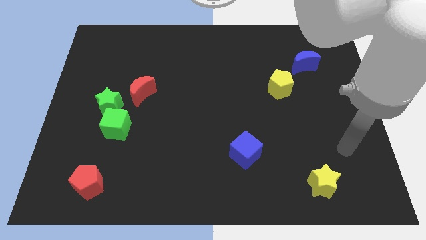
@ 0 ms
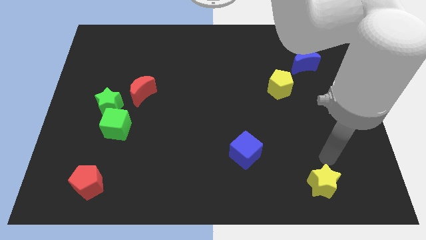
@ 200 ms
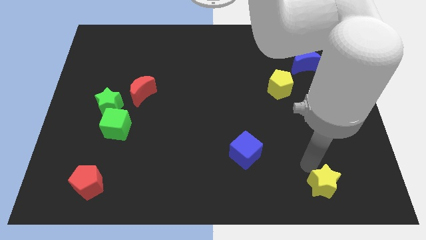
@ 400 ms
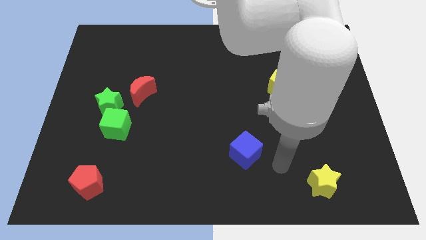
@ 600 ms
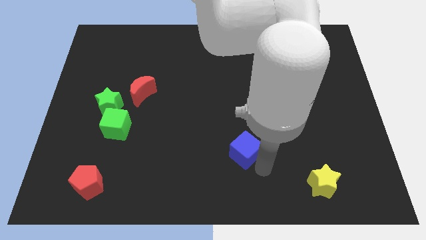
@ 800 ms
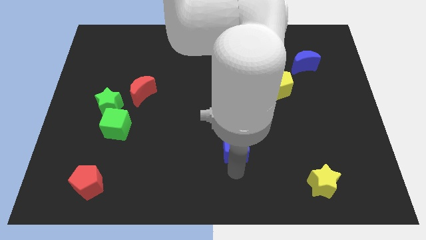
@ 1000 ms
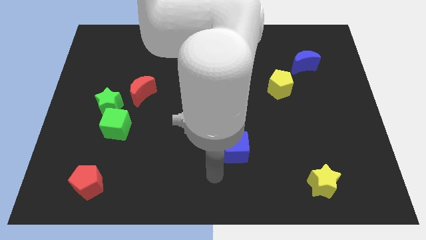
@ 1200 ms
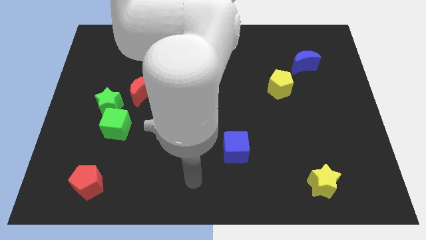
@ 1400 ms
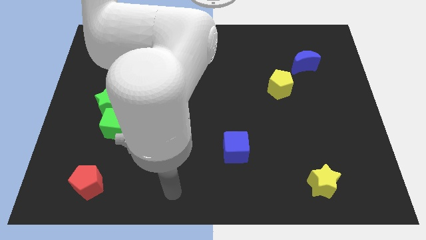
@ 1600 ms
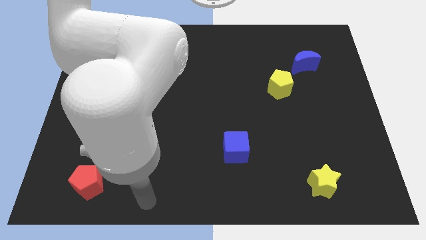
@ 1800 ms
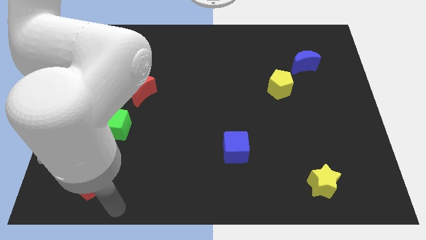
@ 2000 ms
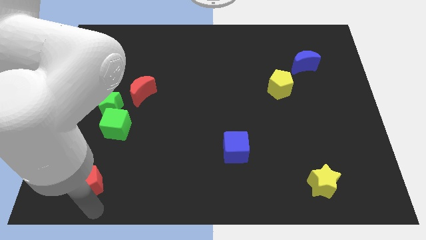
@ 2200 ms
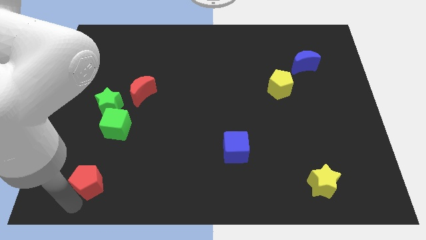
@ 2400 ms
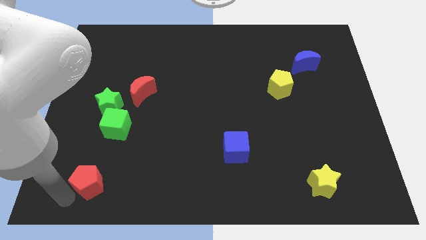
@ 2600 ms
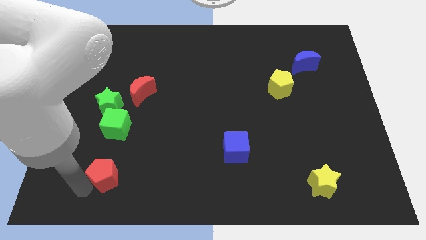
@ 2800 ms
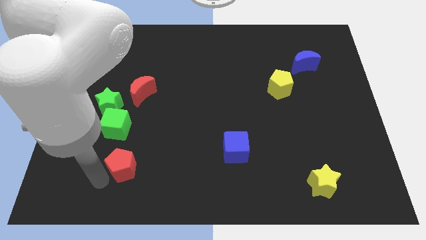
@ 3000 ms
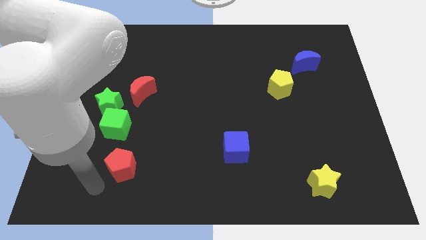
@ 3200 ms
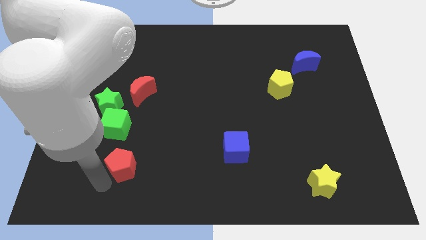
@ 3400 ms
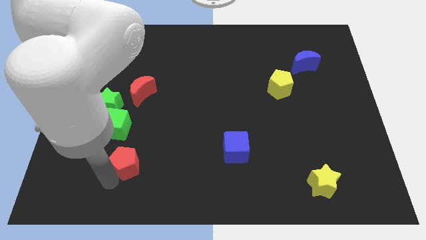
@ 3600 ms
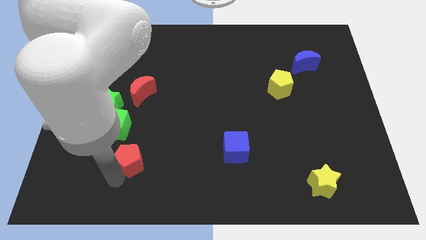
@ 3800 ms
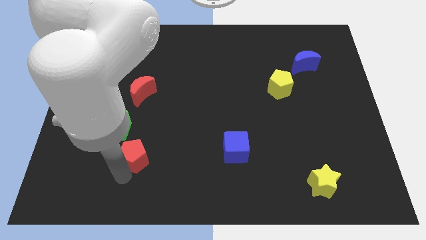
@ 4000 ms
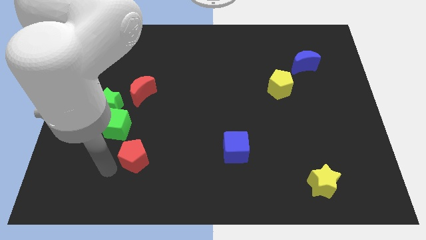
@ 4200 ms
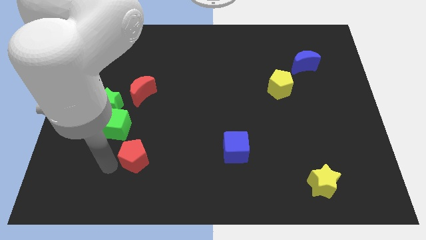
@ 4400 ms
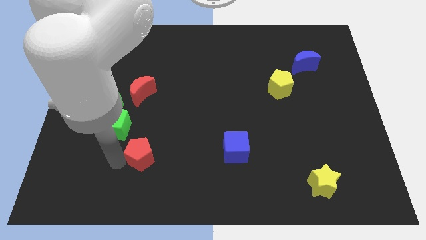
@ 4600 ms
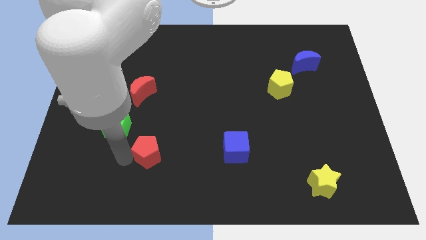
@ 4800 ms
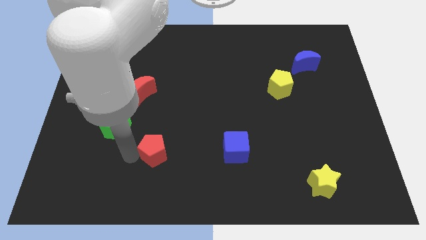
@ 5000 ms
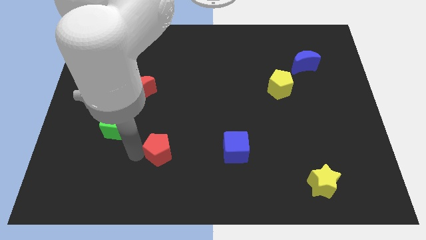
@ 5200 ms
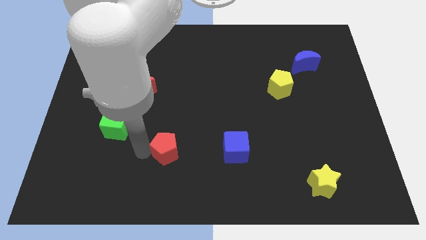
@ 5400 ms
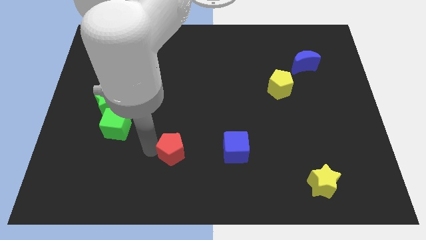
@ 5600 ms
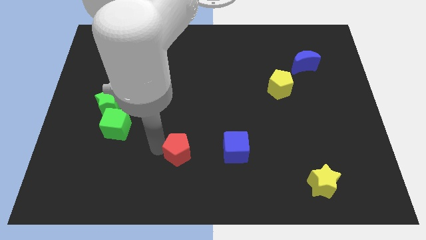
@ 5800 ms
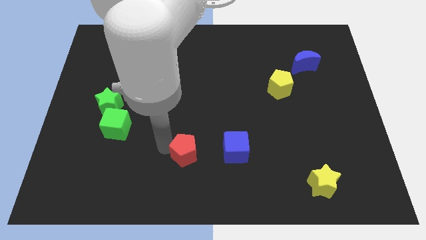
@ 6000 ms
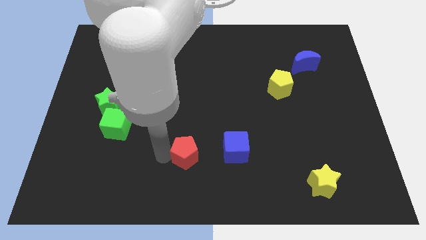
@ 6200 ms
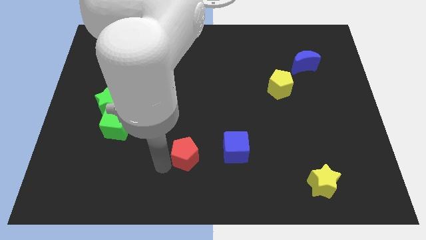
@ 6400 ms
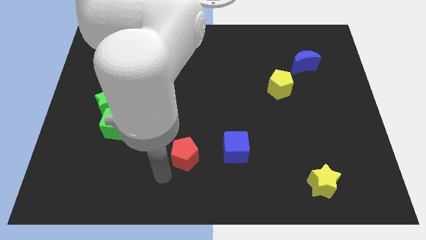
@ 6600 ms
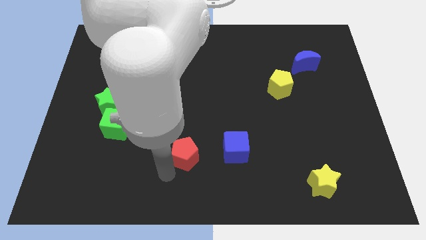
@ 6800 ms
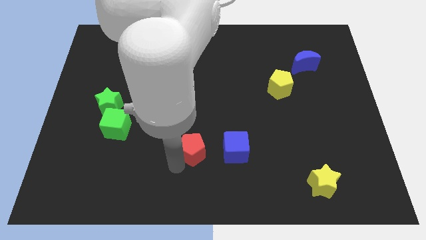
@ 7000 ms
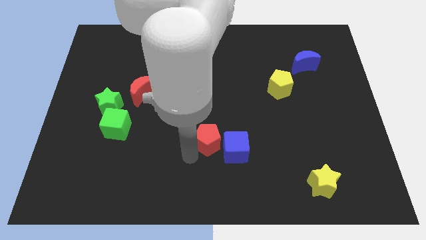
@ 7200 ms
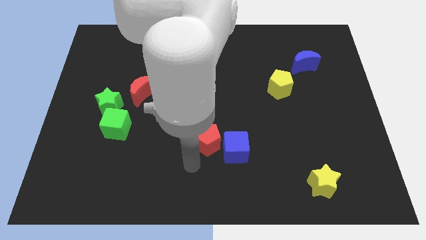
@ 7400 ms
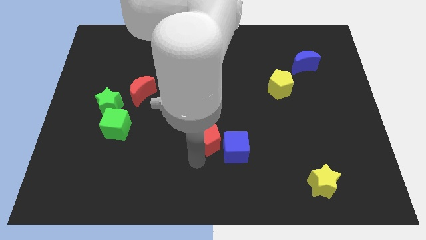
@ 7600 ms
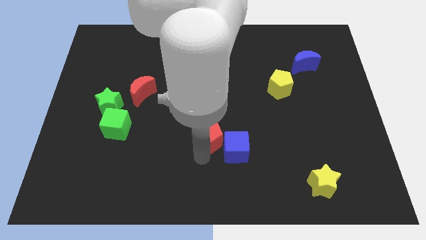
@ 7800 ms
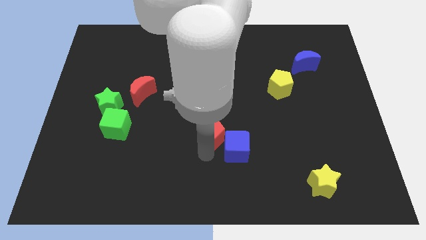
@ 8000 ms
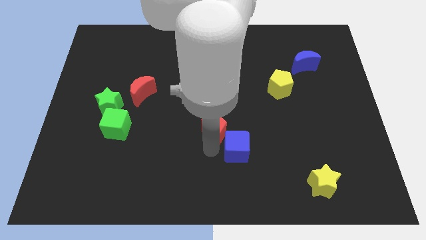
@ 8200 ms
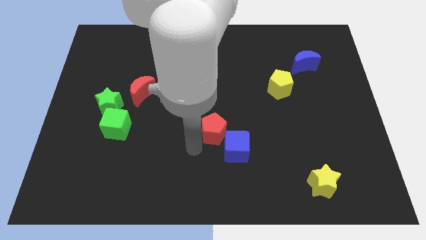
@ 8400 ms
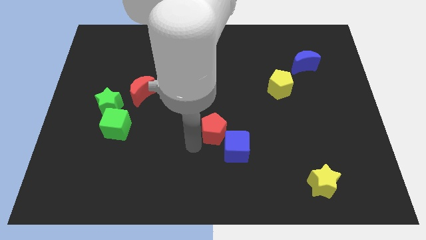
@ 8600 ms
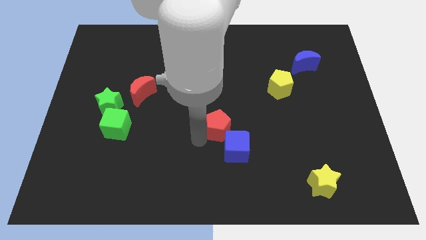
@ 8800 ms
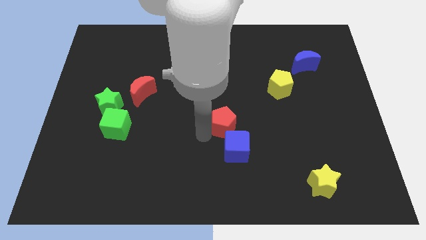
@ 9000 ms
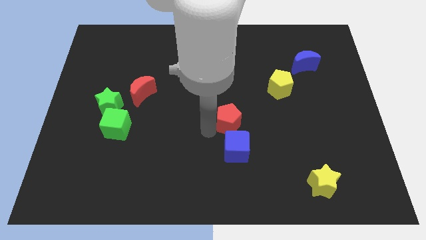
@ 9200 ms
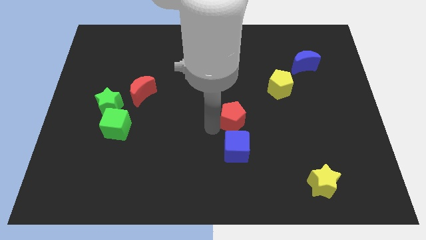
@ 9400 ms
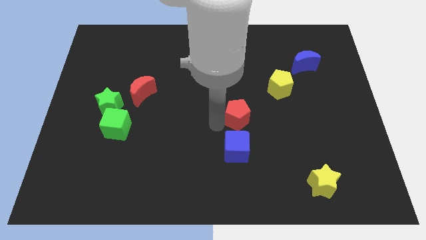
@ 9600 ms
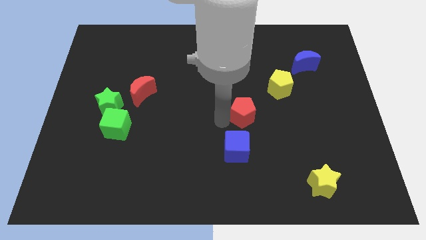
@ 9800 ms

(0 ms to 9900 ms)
move the red pentagon to the bottom left side of the yellow pentagon
